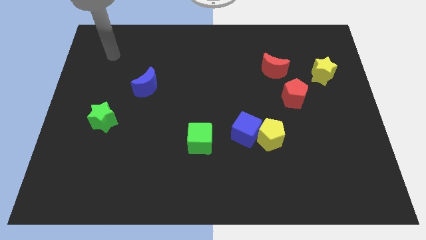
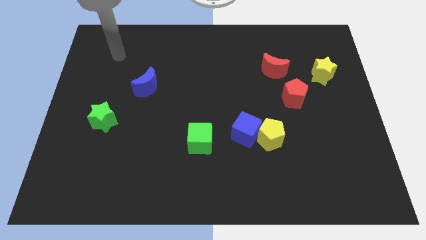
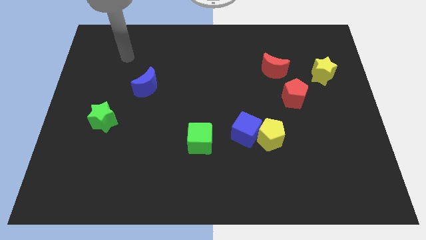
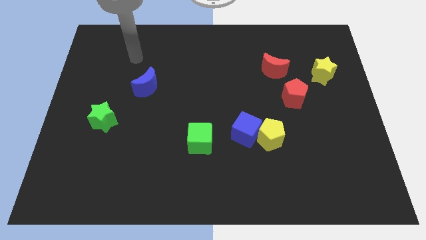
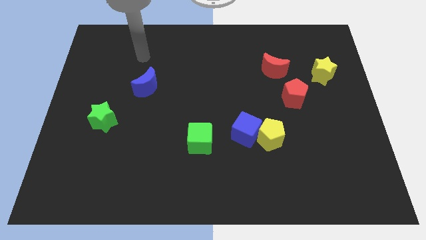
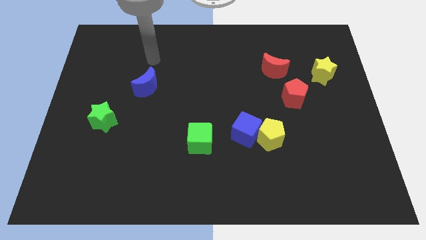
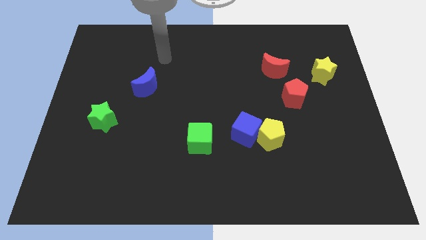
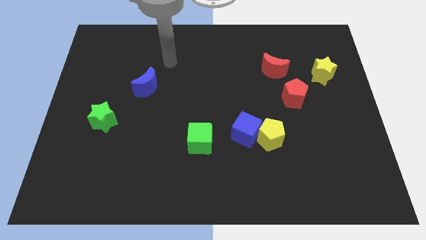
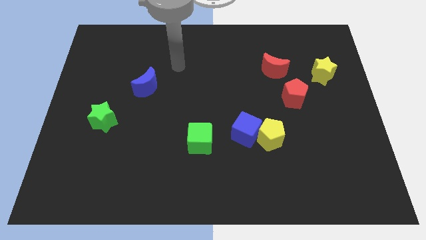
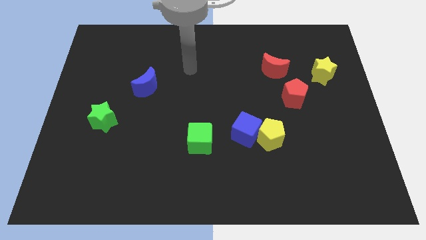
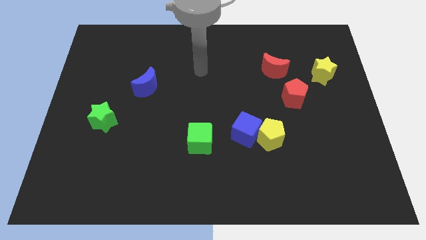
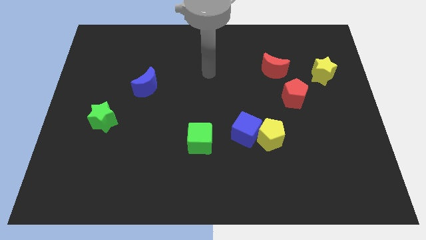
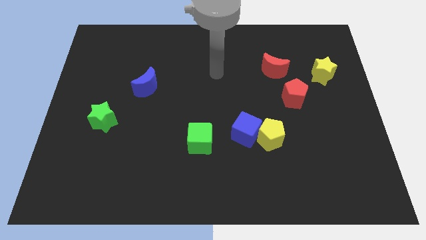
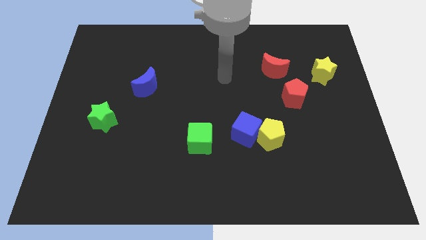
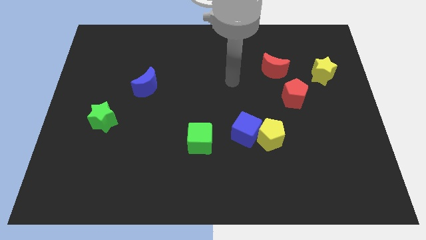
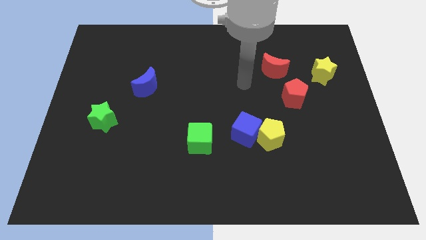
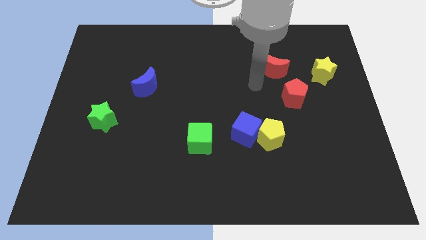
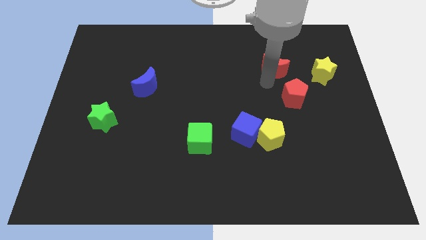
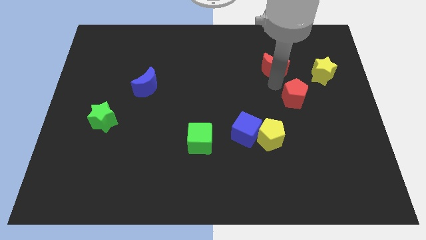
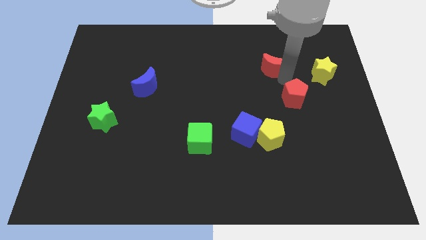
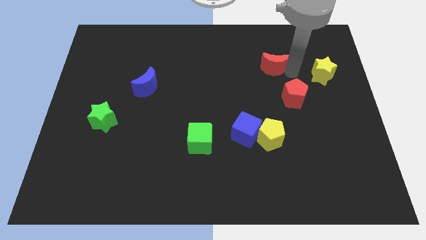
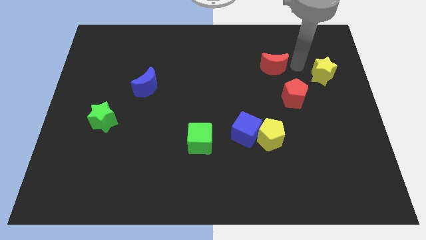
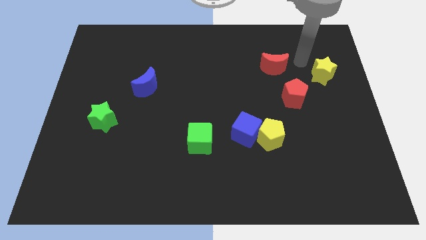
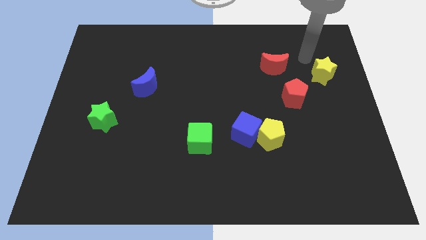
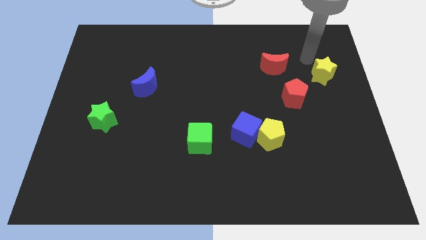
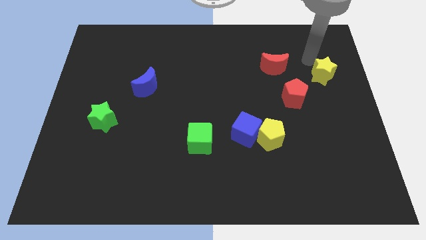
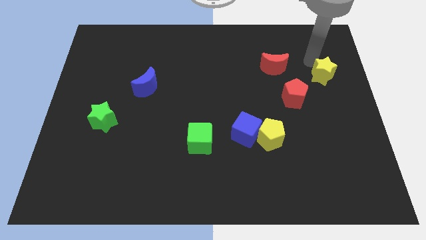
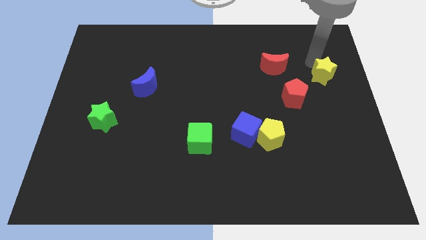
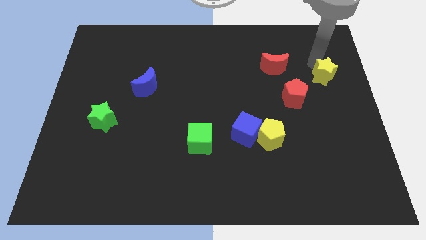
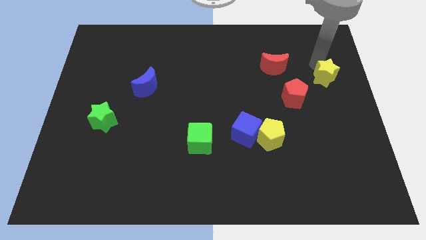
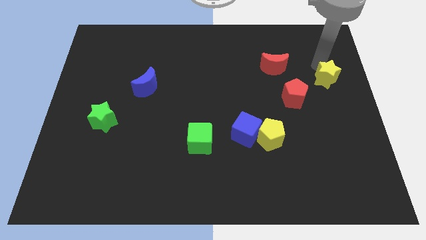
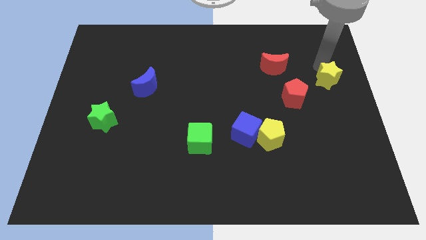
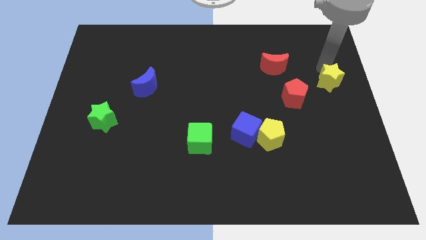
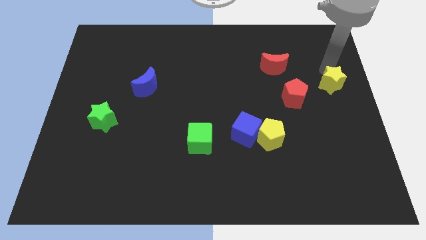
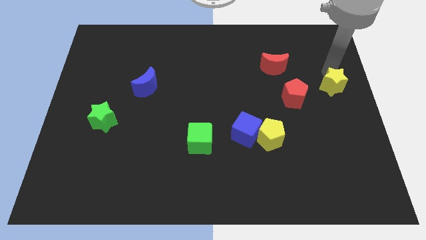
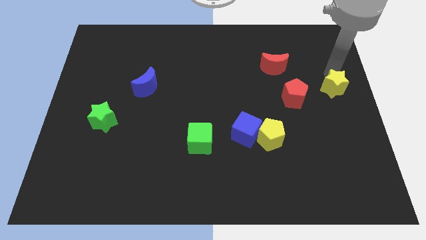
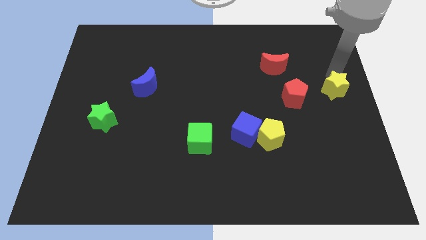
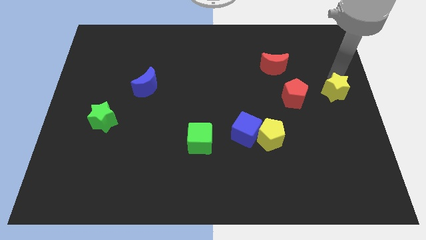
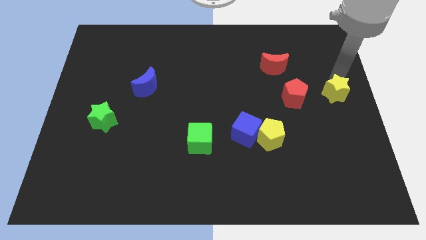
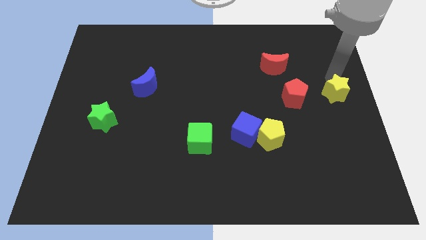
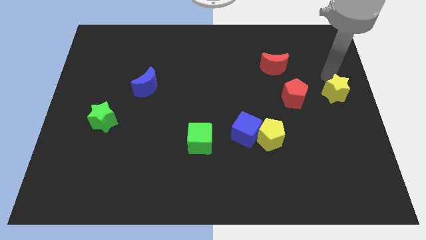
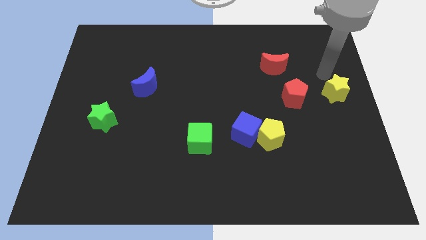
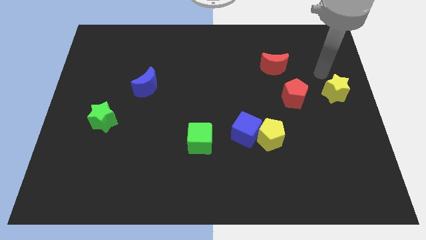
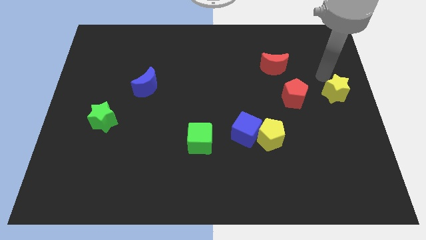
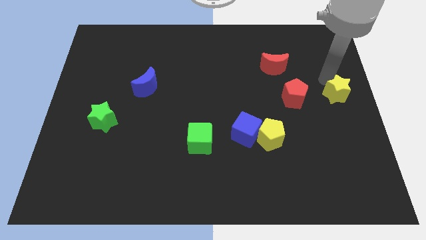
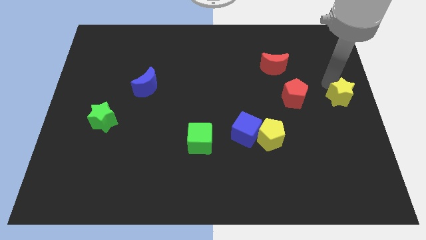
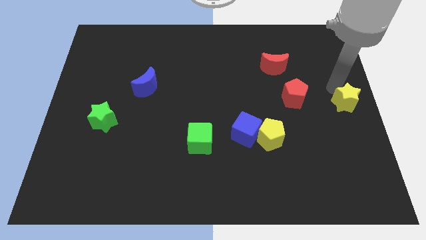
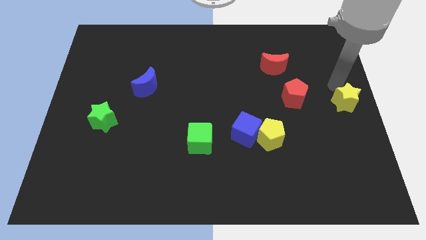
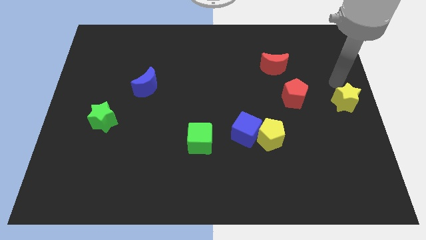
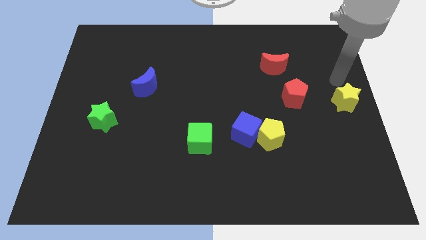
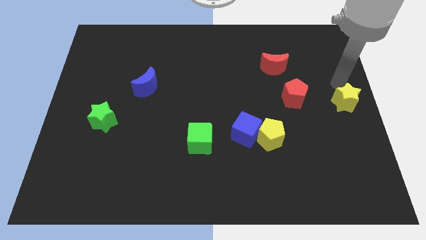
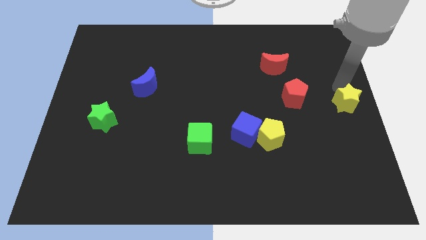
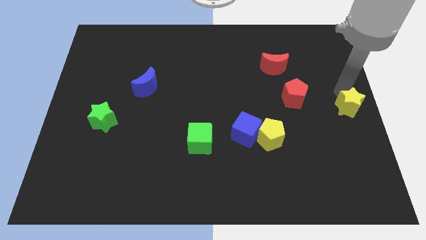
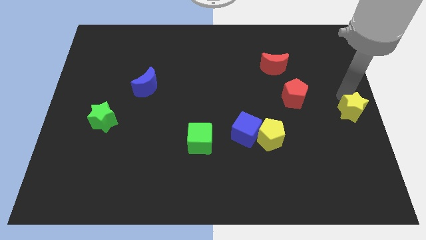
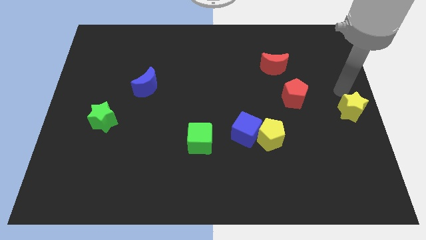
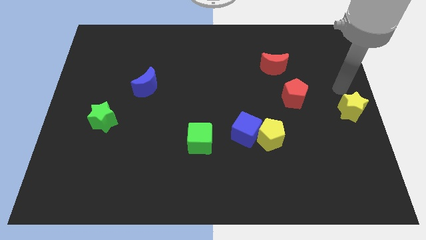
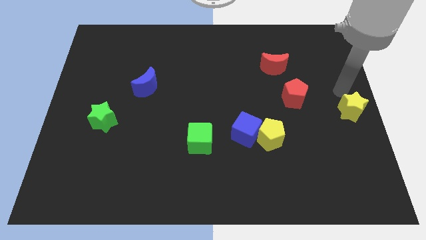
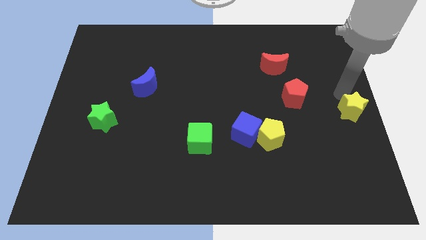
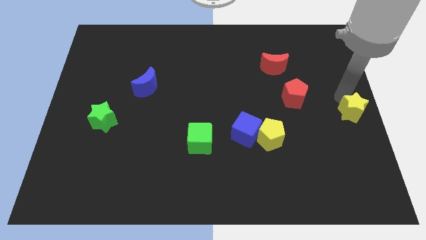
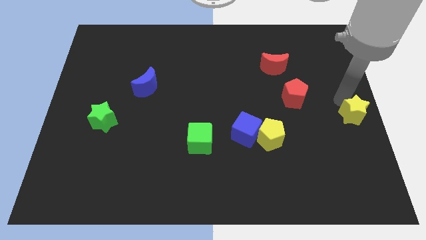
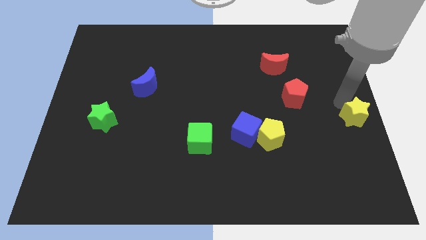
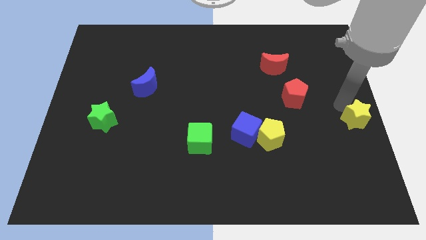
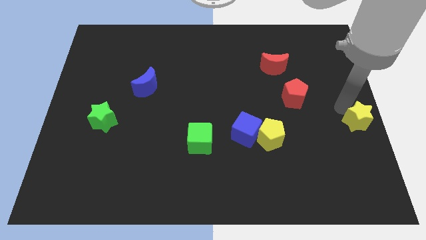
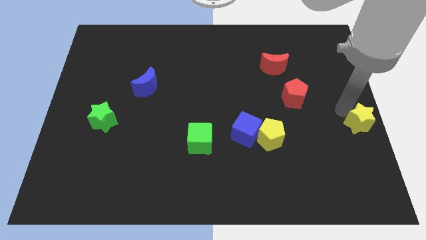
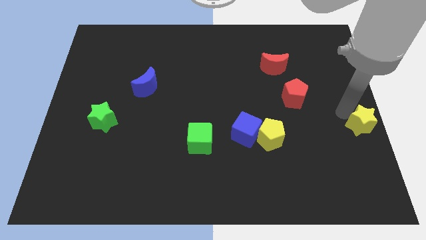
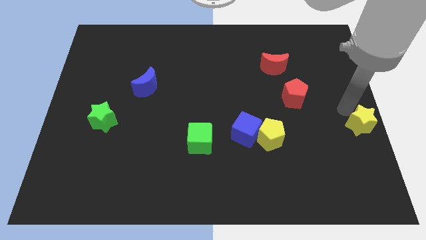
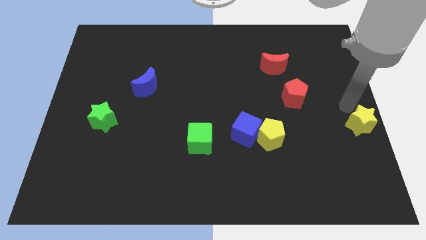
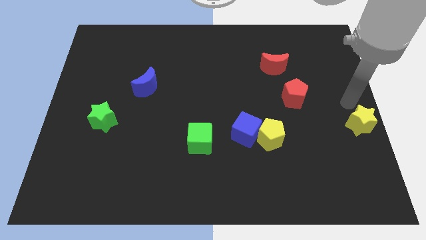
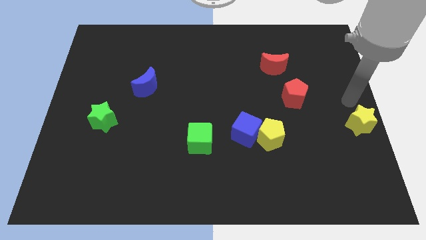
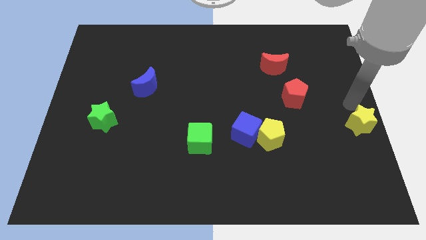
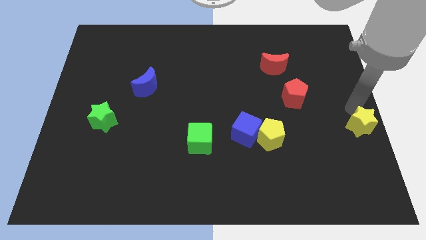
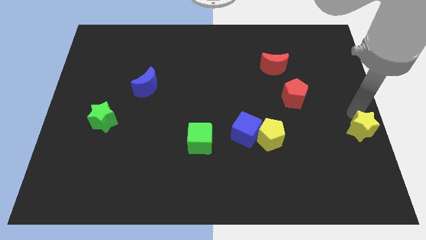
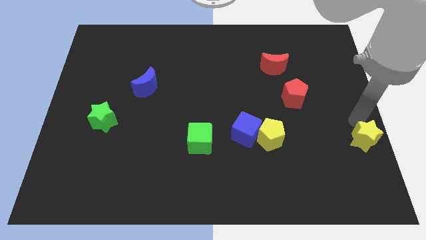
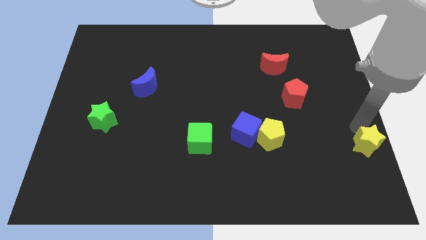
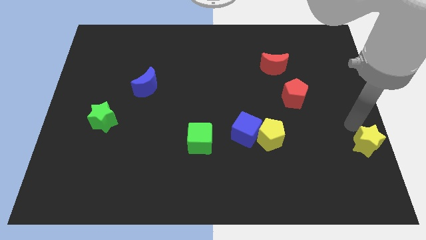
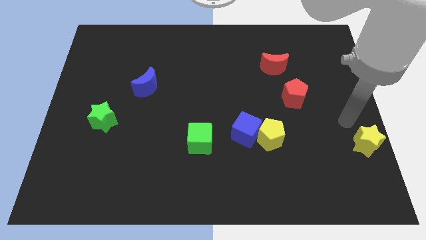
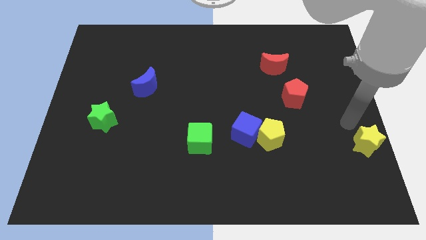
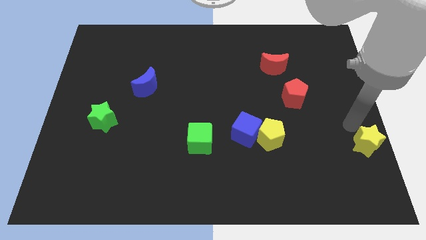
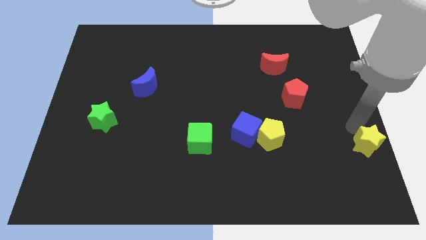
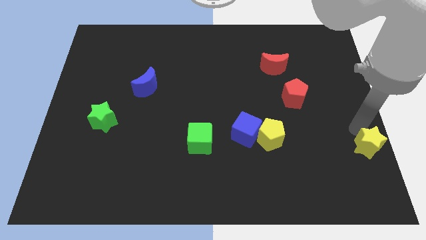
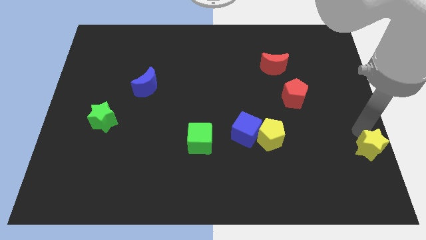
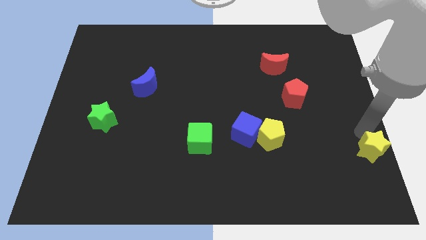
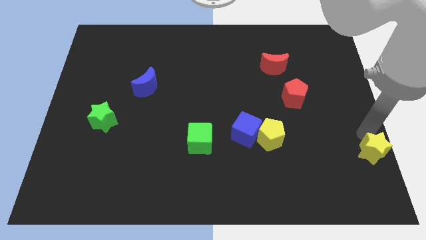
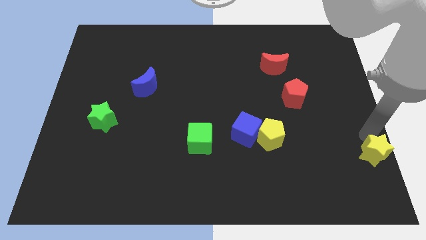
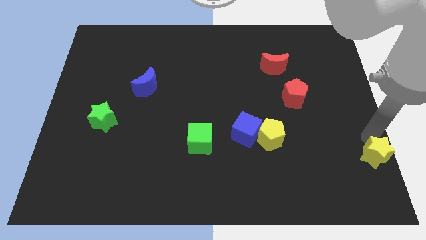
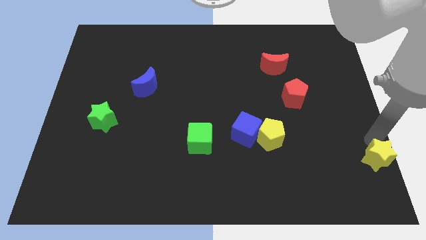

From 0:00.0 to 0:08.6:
slide the yellow star to the bottom right
